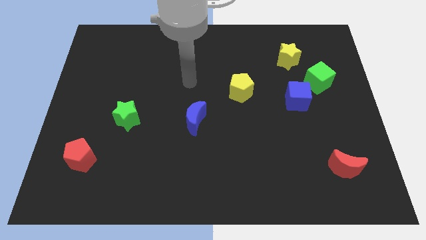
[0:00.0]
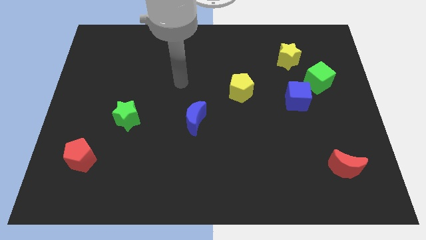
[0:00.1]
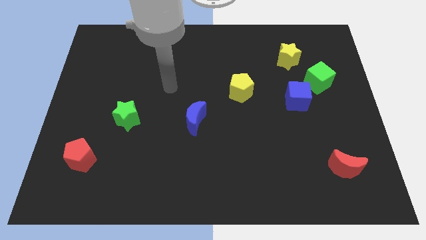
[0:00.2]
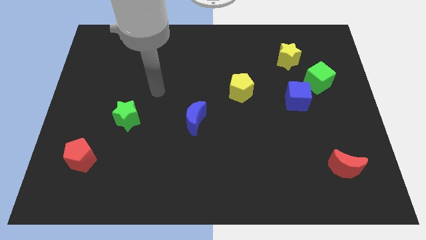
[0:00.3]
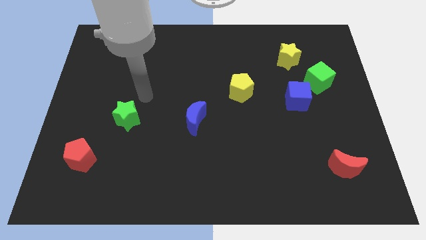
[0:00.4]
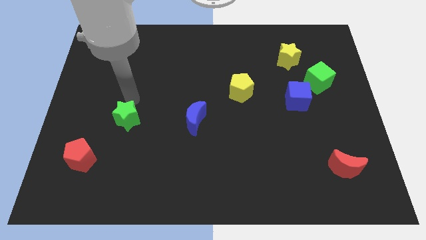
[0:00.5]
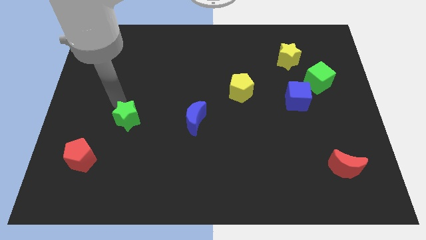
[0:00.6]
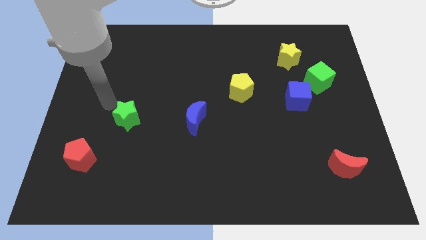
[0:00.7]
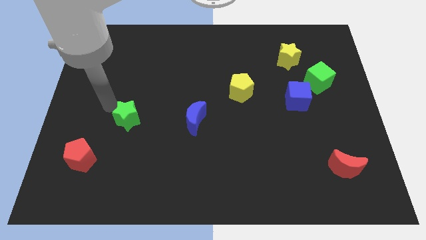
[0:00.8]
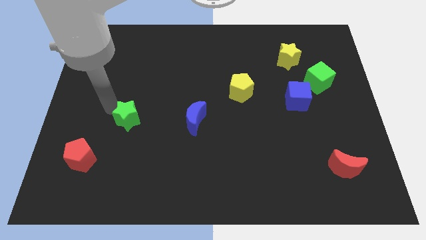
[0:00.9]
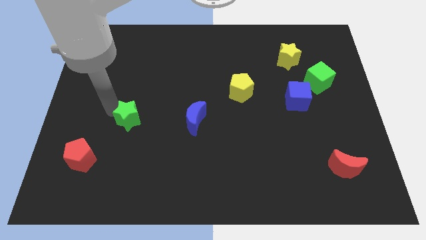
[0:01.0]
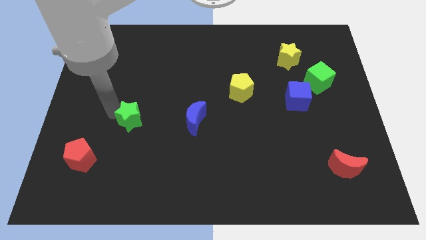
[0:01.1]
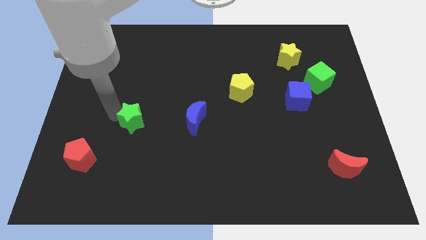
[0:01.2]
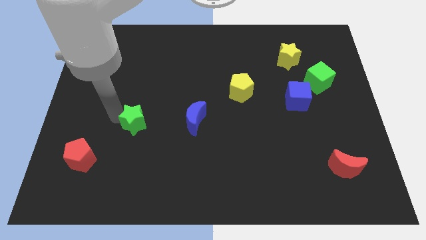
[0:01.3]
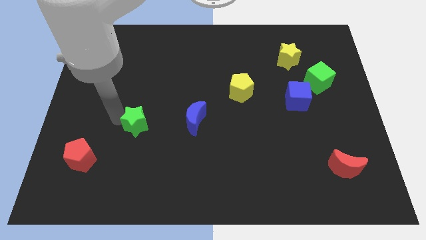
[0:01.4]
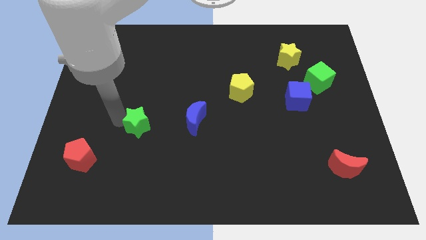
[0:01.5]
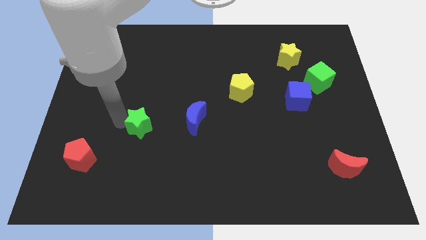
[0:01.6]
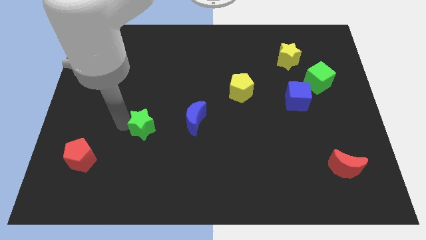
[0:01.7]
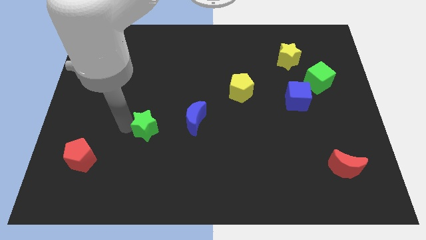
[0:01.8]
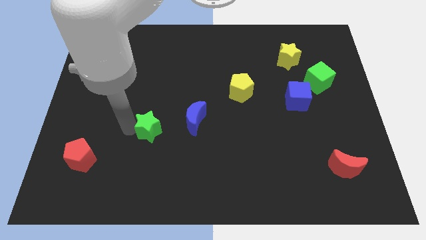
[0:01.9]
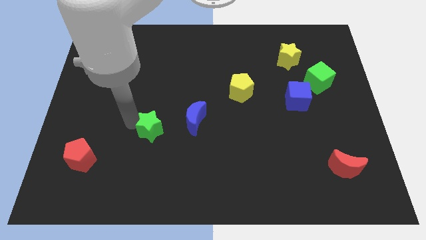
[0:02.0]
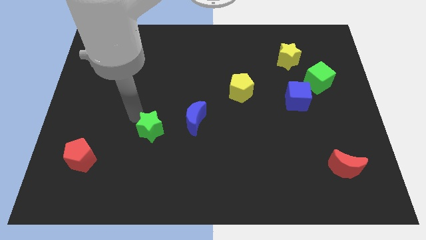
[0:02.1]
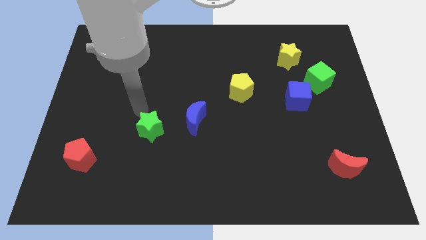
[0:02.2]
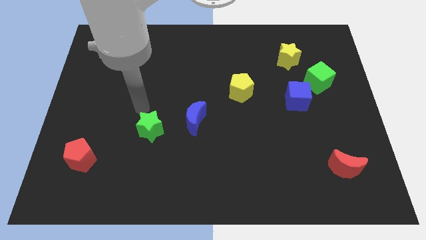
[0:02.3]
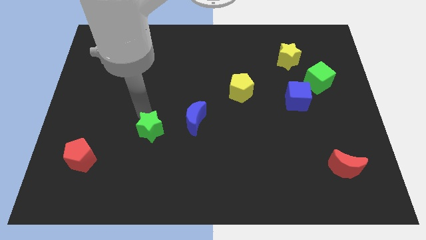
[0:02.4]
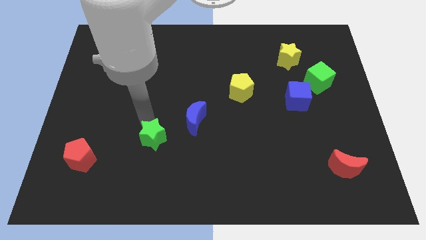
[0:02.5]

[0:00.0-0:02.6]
push the green star slightly downwards and then right

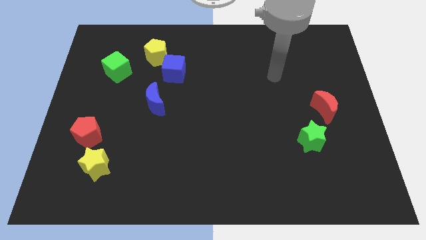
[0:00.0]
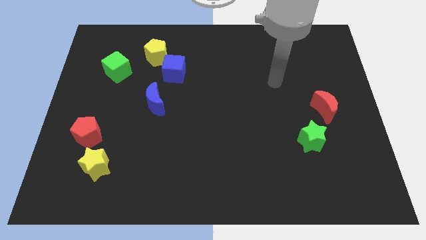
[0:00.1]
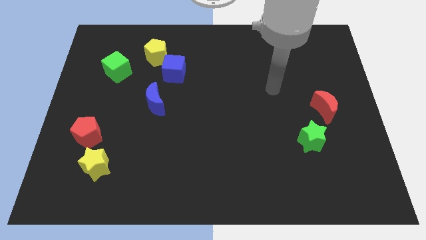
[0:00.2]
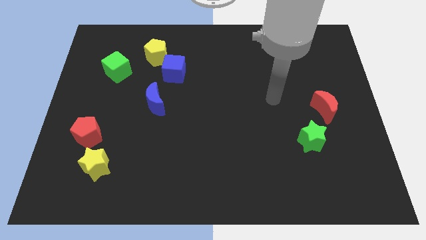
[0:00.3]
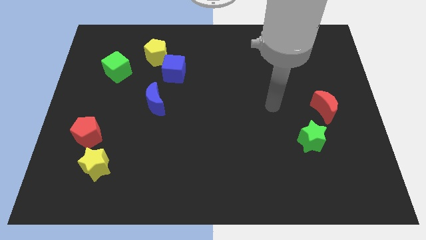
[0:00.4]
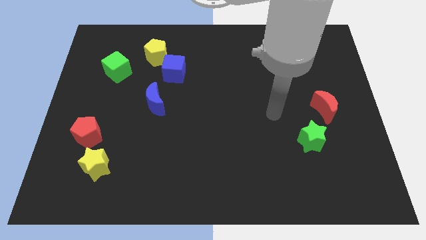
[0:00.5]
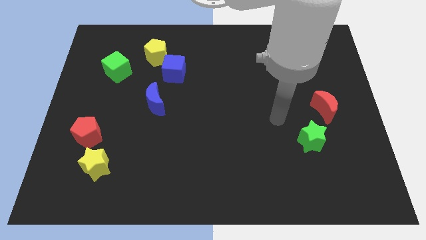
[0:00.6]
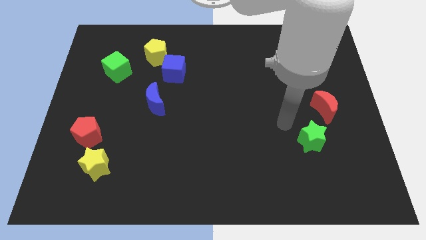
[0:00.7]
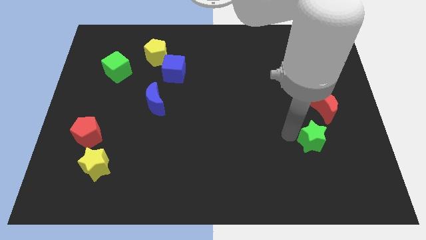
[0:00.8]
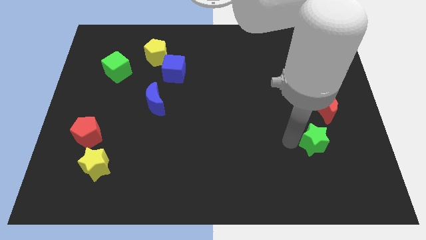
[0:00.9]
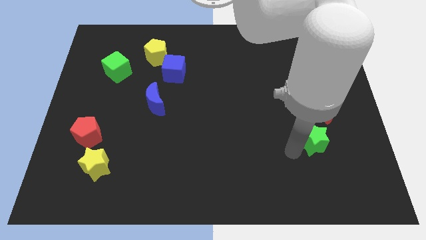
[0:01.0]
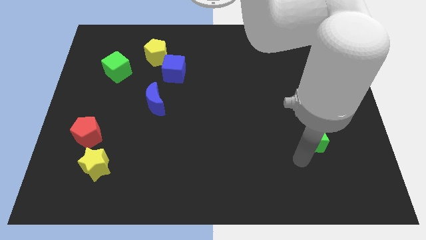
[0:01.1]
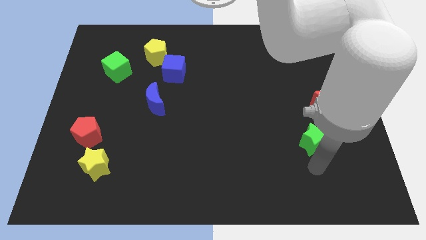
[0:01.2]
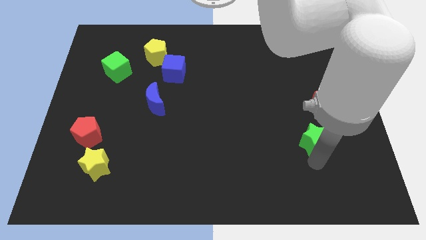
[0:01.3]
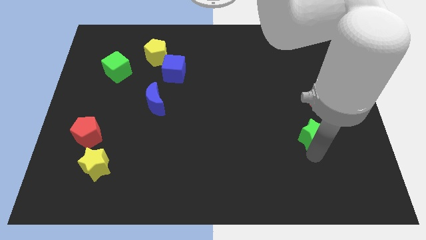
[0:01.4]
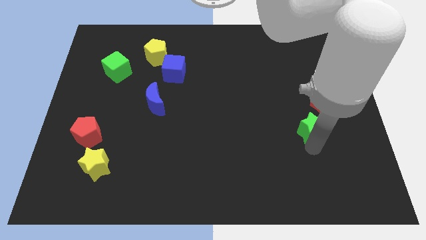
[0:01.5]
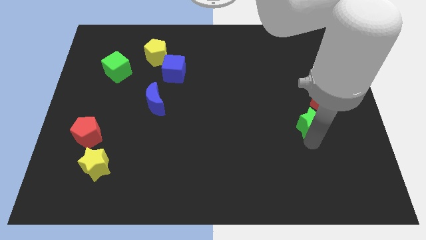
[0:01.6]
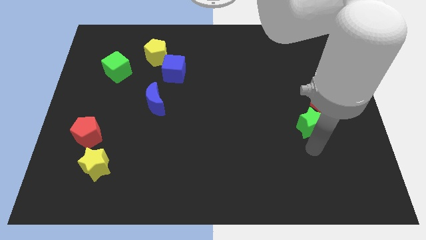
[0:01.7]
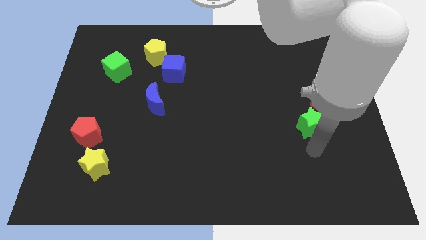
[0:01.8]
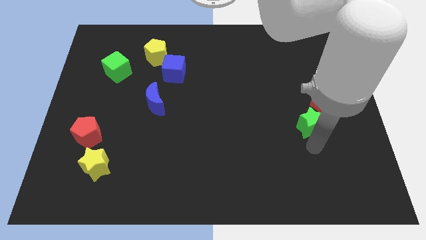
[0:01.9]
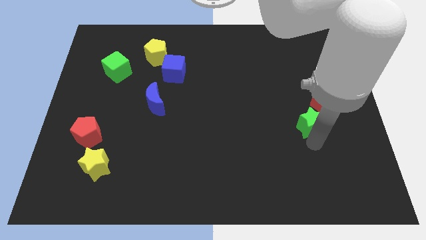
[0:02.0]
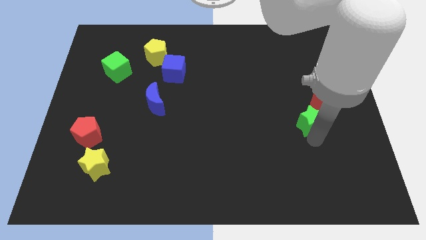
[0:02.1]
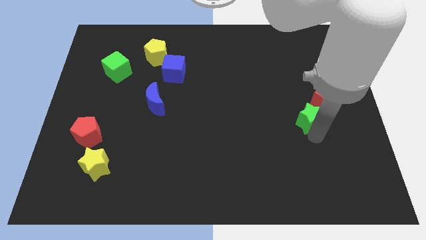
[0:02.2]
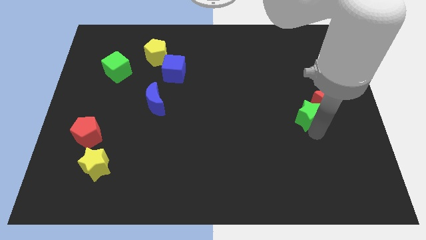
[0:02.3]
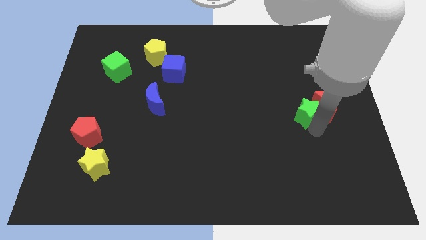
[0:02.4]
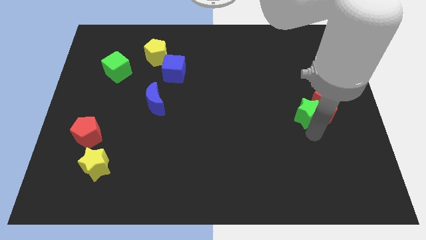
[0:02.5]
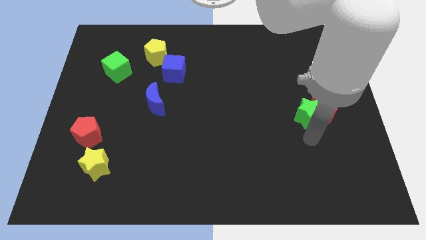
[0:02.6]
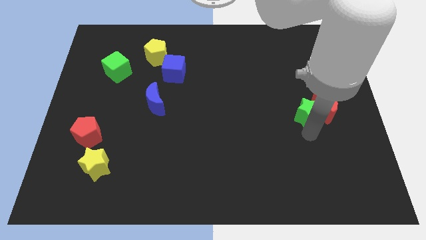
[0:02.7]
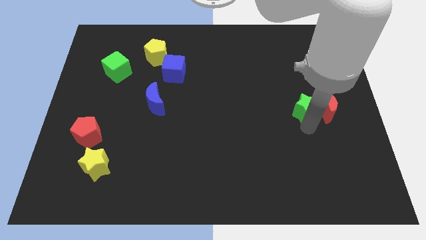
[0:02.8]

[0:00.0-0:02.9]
move the green star a bit up

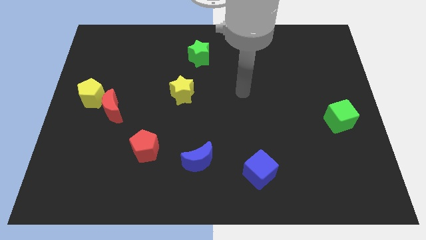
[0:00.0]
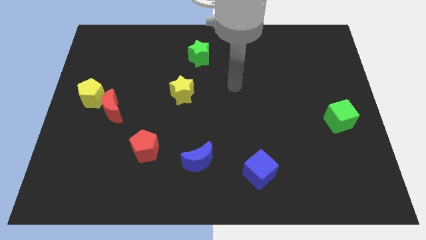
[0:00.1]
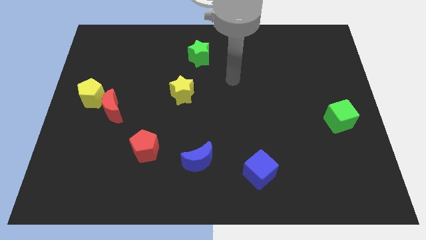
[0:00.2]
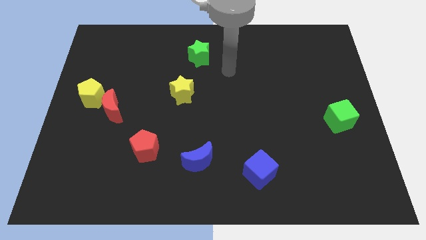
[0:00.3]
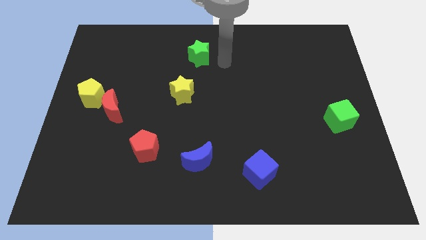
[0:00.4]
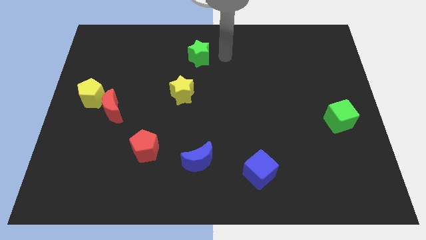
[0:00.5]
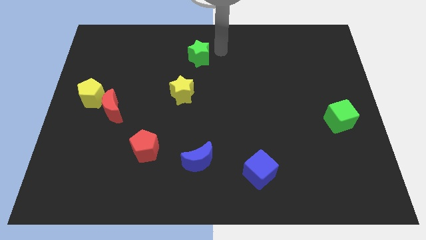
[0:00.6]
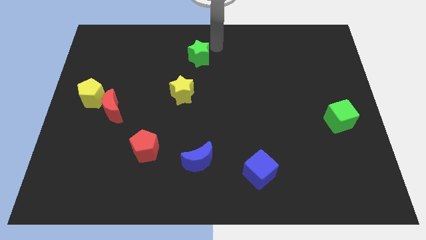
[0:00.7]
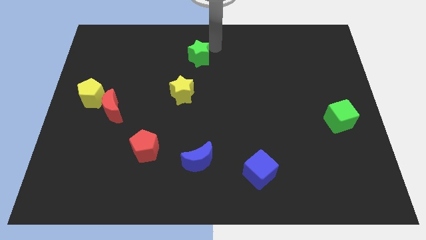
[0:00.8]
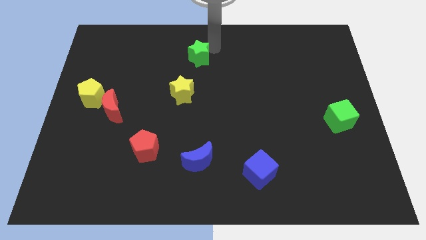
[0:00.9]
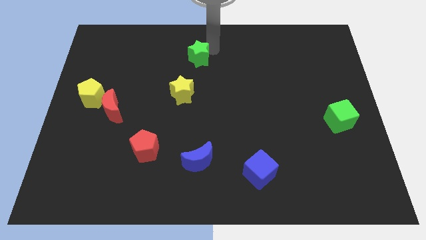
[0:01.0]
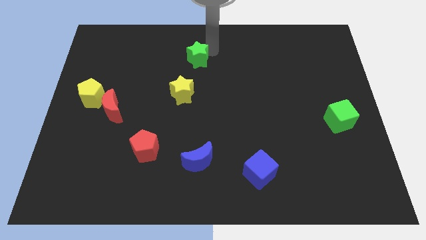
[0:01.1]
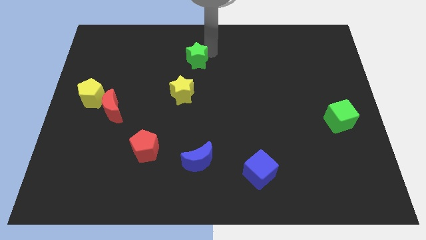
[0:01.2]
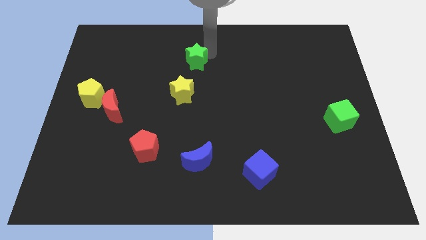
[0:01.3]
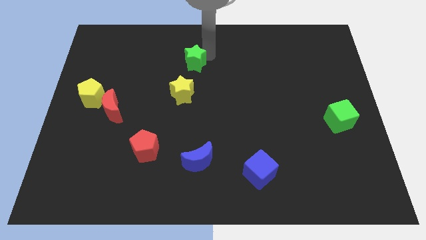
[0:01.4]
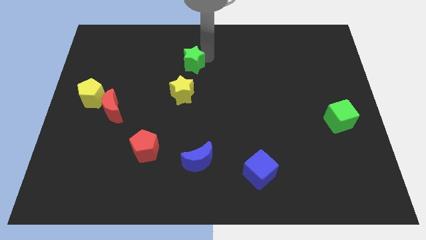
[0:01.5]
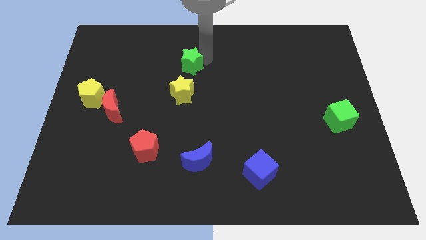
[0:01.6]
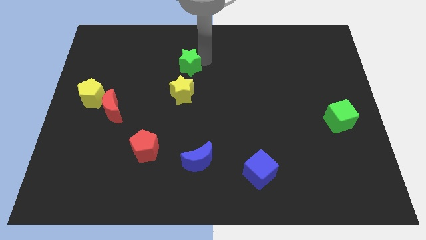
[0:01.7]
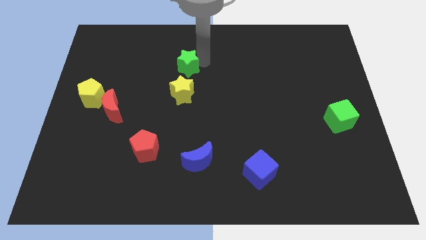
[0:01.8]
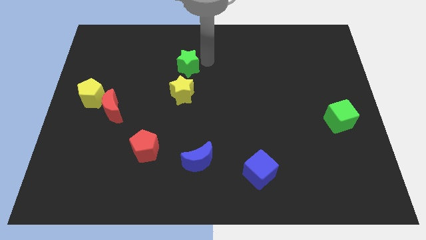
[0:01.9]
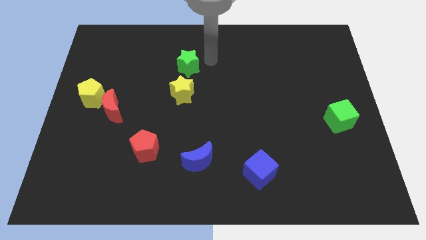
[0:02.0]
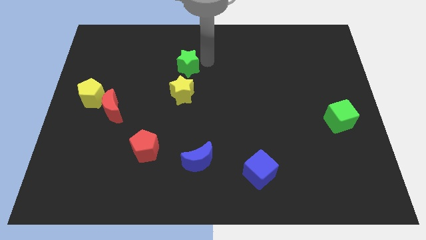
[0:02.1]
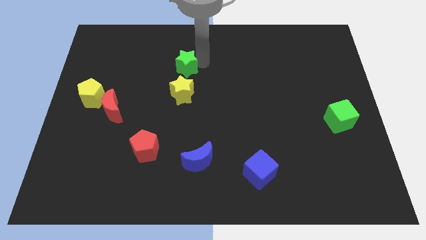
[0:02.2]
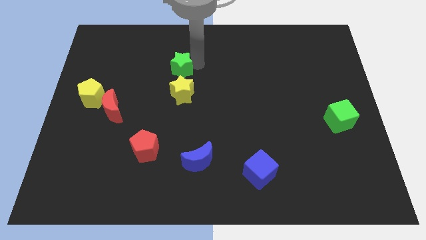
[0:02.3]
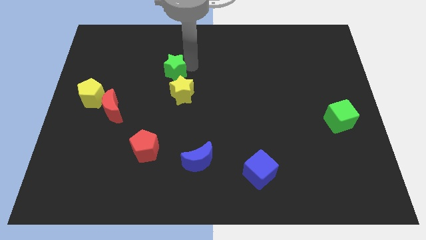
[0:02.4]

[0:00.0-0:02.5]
move the green star downwards and left diagonally a little bit
